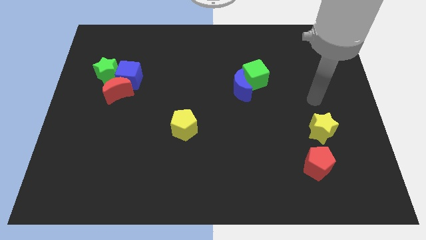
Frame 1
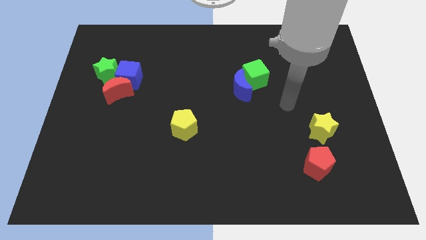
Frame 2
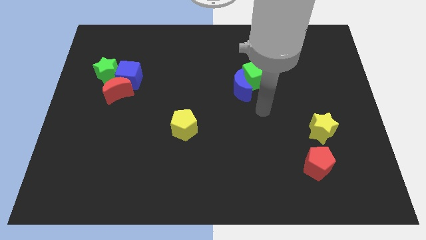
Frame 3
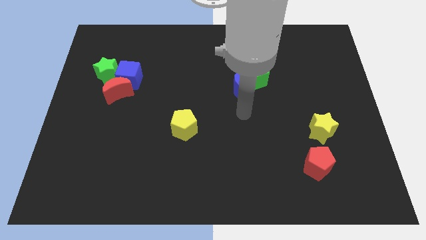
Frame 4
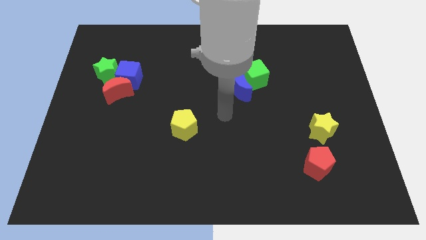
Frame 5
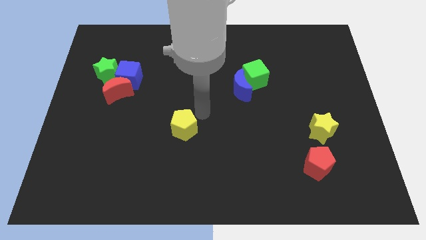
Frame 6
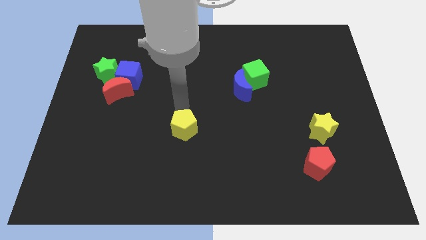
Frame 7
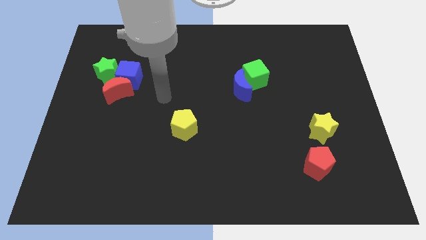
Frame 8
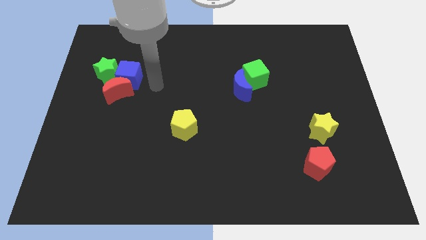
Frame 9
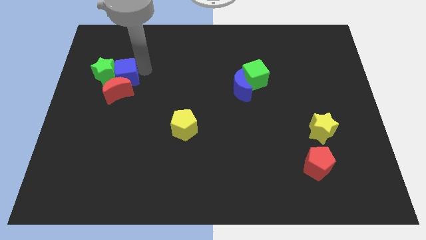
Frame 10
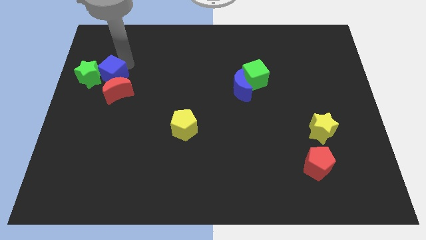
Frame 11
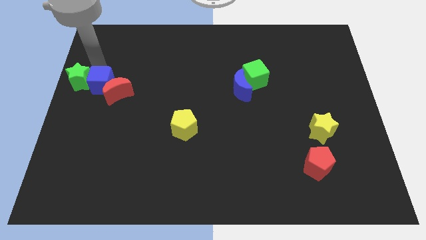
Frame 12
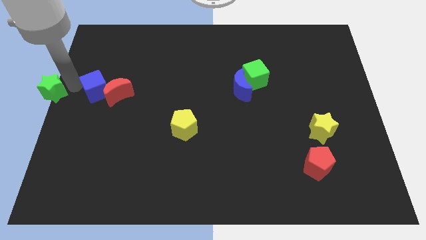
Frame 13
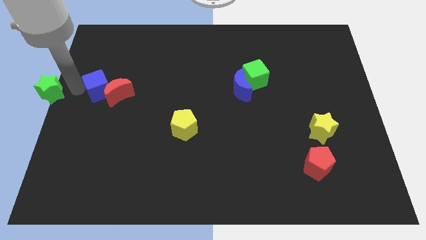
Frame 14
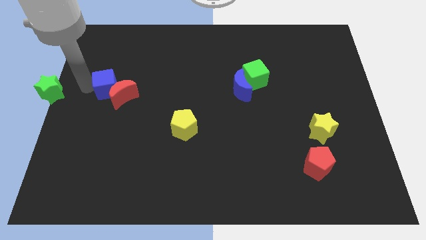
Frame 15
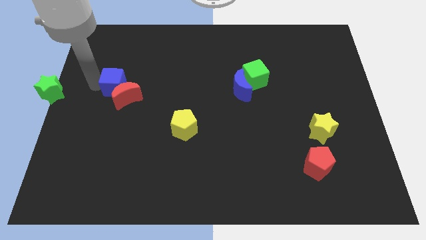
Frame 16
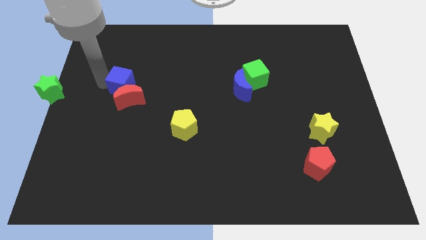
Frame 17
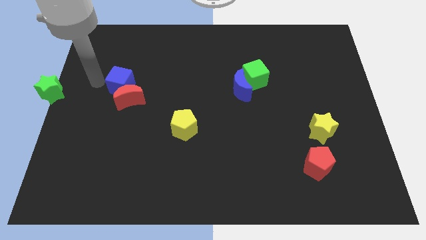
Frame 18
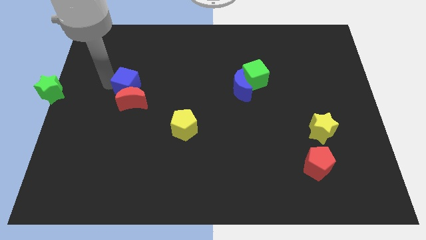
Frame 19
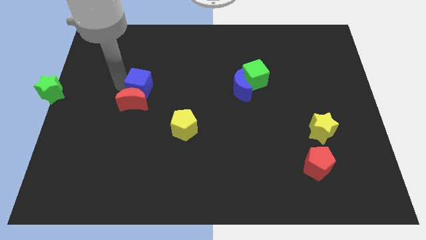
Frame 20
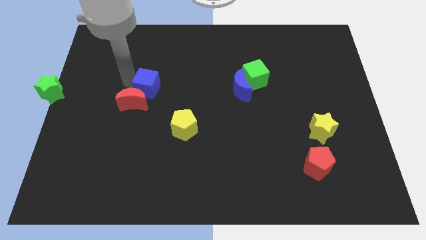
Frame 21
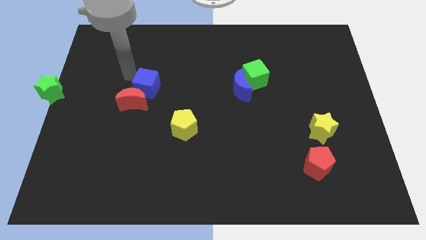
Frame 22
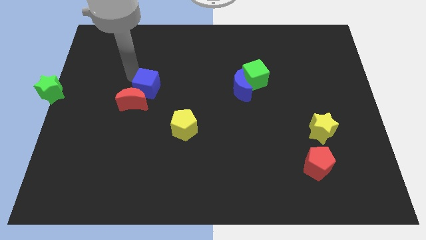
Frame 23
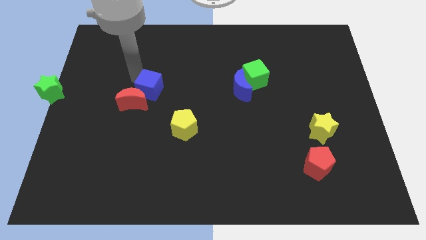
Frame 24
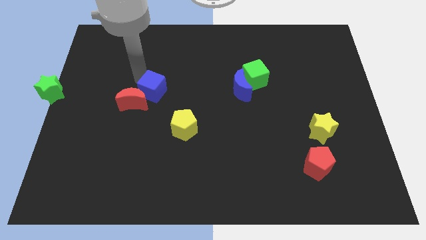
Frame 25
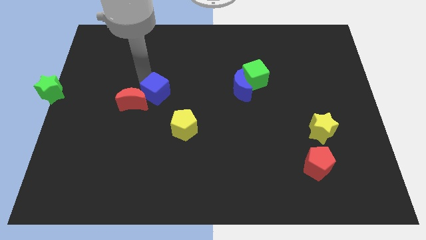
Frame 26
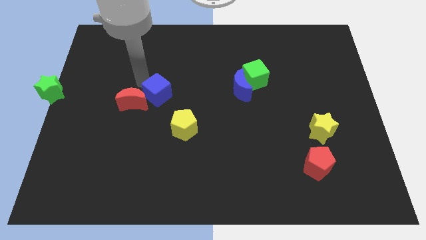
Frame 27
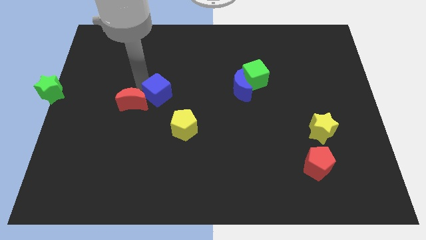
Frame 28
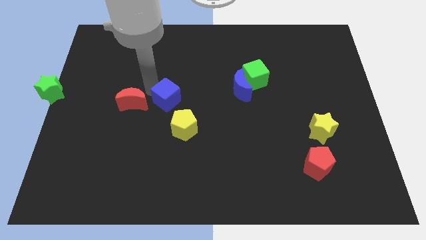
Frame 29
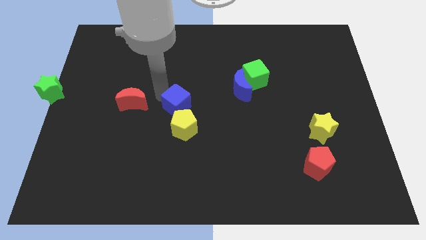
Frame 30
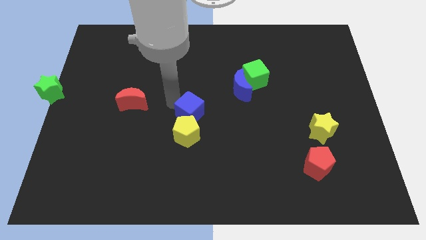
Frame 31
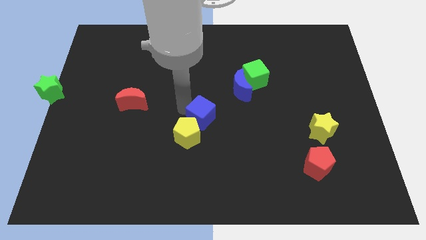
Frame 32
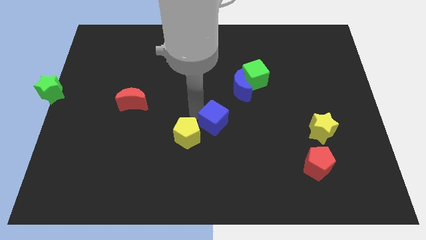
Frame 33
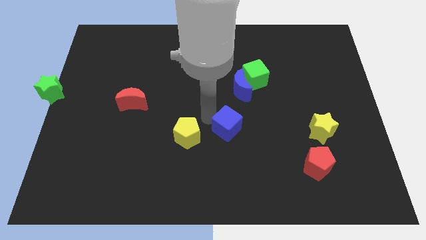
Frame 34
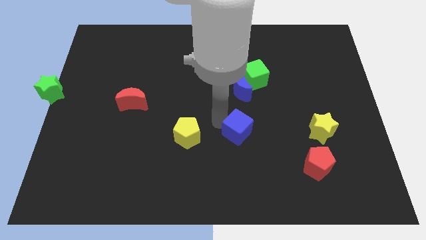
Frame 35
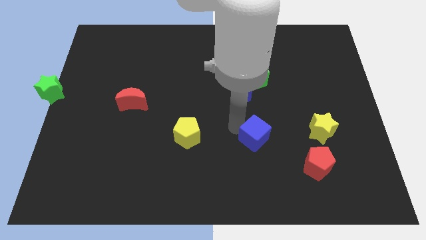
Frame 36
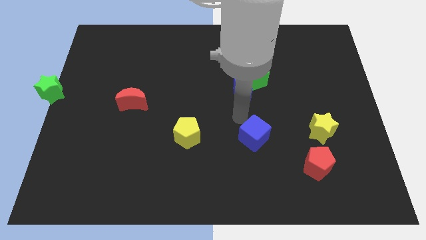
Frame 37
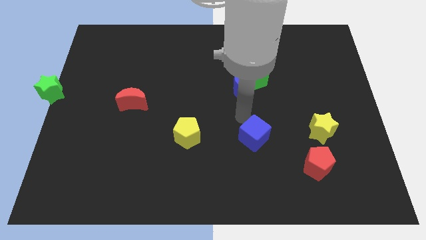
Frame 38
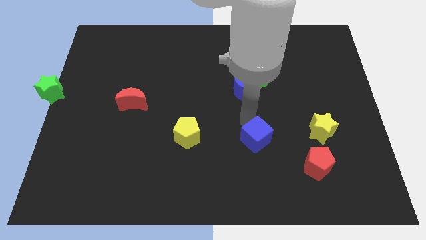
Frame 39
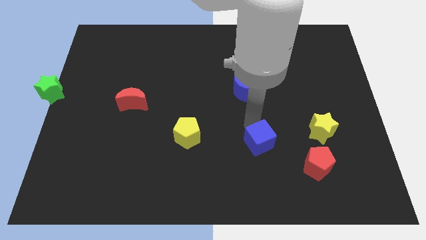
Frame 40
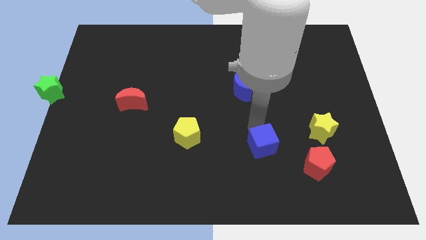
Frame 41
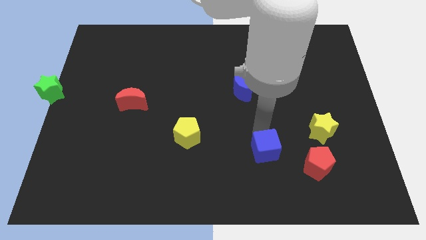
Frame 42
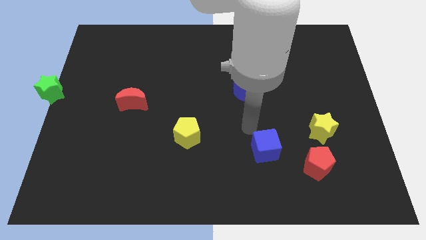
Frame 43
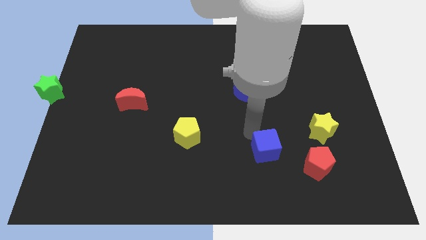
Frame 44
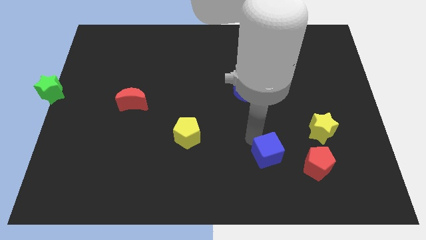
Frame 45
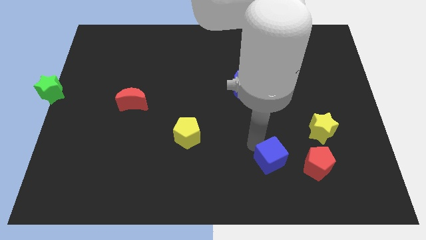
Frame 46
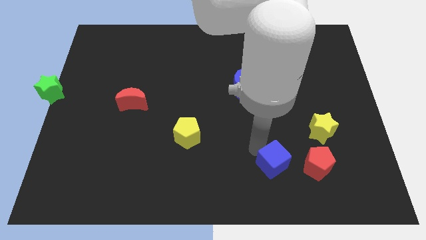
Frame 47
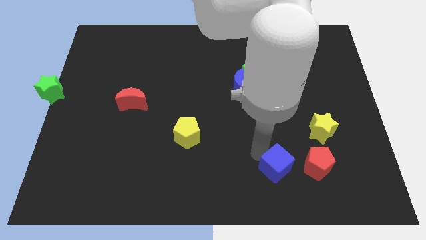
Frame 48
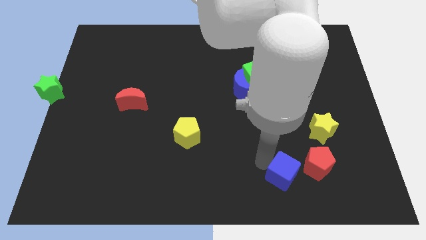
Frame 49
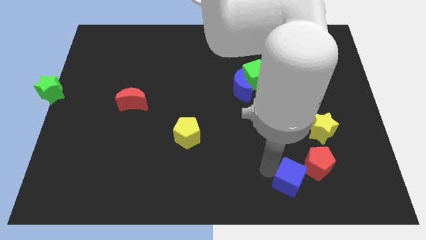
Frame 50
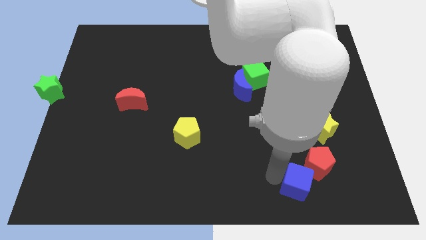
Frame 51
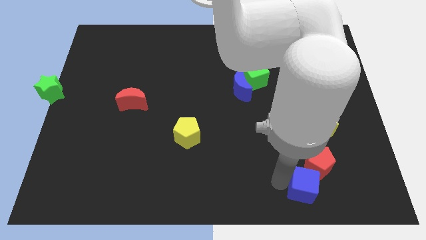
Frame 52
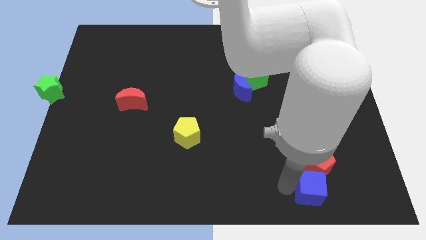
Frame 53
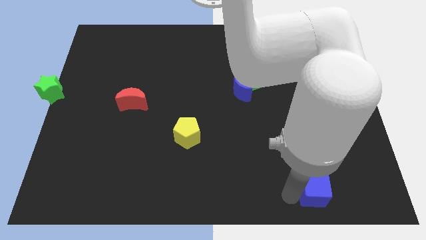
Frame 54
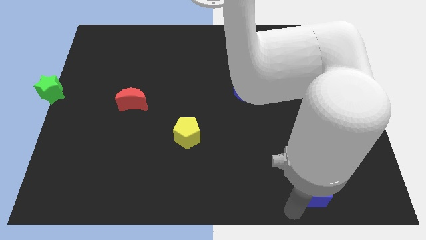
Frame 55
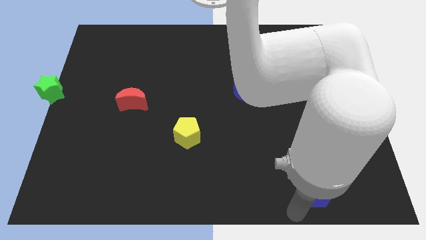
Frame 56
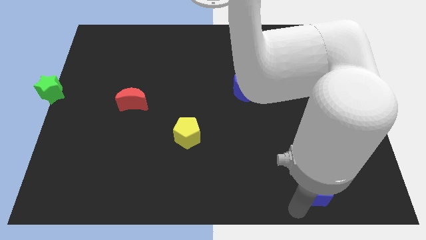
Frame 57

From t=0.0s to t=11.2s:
slide the blue cube to the bottom of the yellow star

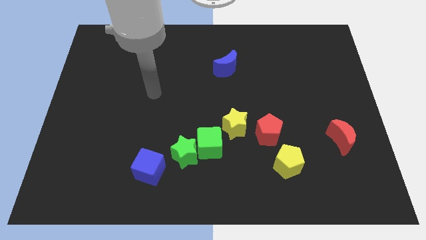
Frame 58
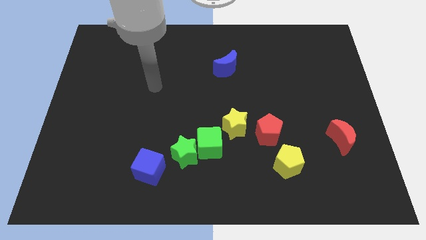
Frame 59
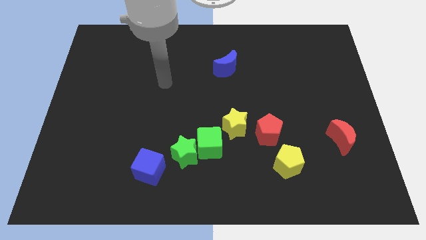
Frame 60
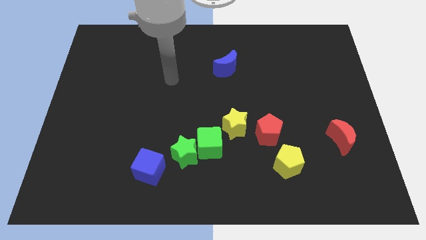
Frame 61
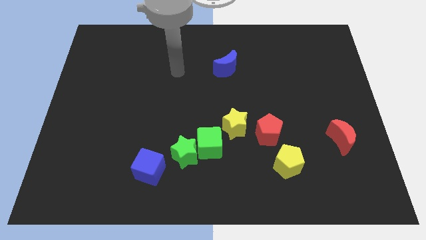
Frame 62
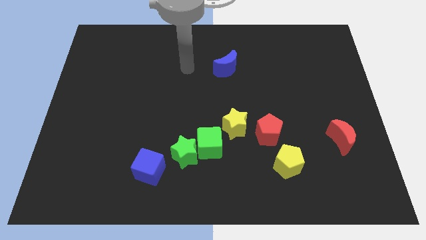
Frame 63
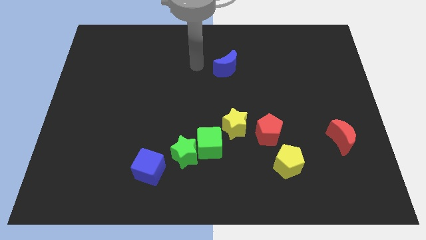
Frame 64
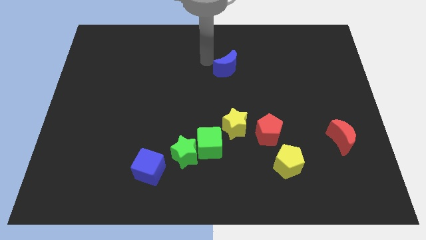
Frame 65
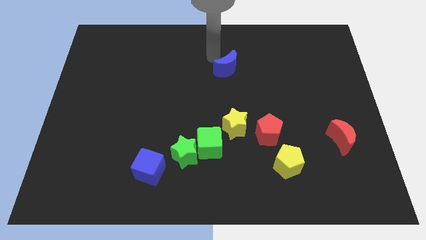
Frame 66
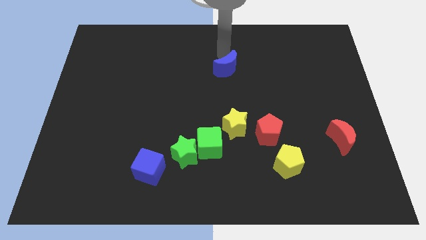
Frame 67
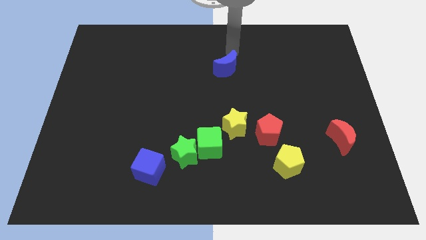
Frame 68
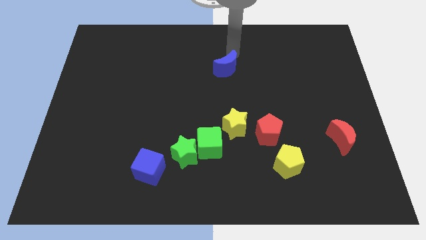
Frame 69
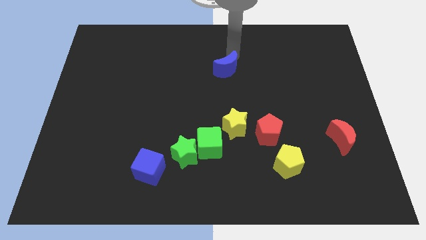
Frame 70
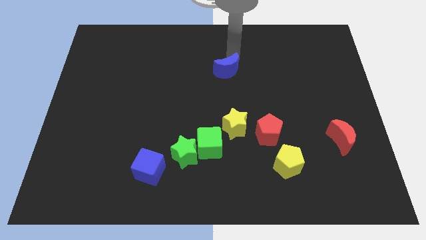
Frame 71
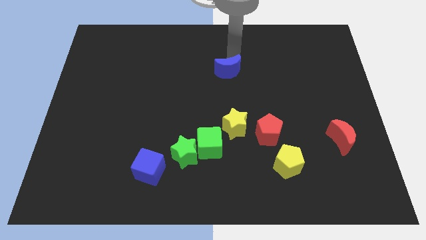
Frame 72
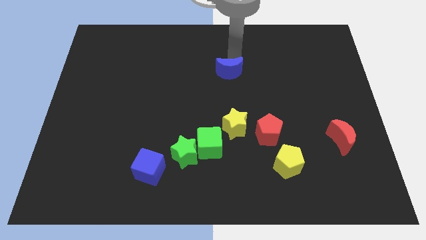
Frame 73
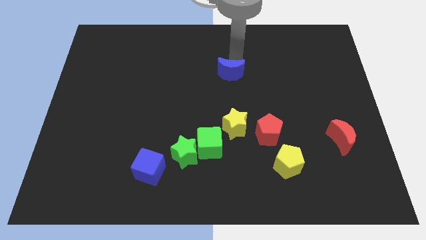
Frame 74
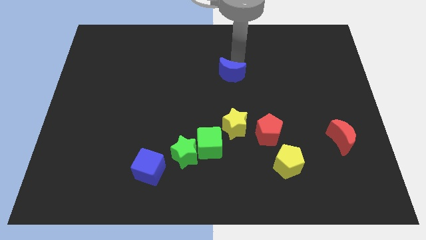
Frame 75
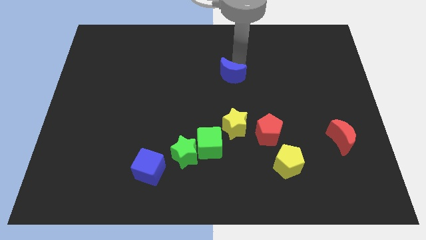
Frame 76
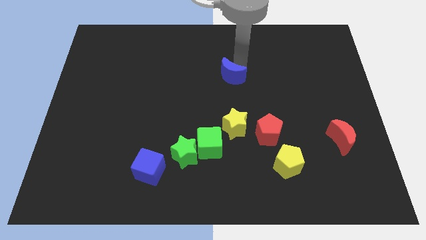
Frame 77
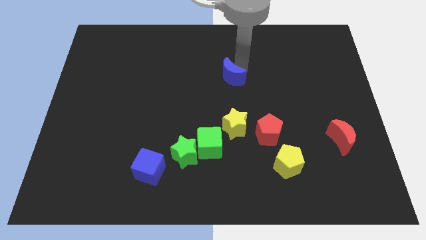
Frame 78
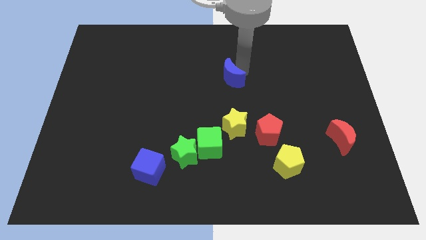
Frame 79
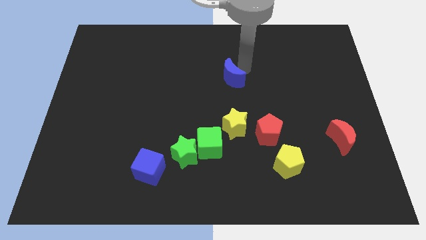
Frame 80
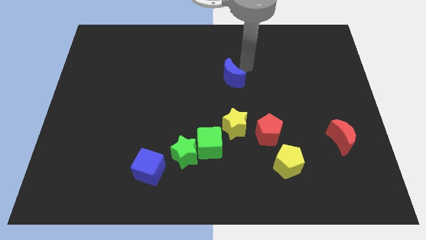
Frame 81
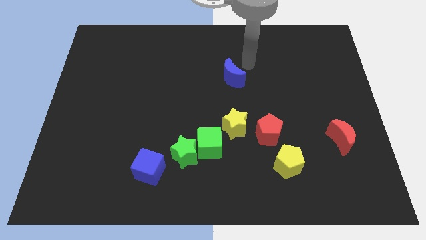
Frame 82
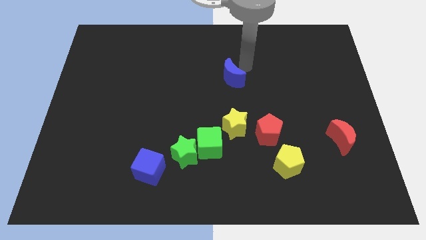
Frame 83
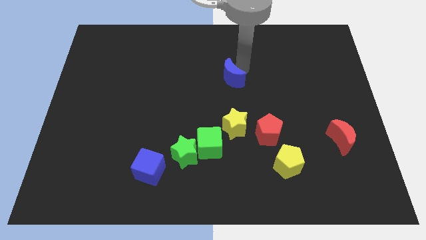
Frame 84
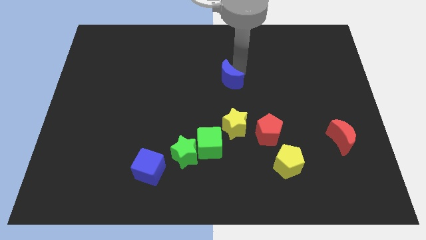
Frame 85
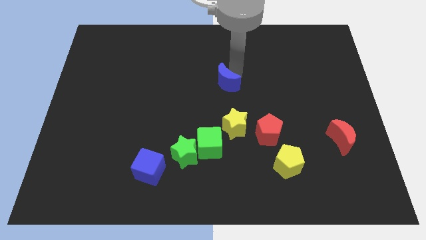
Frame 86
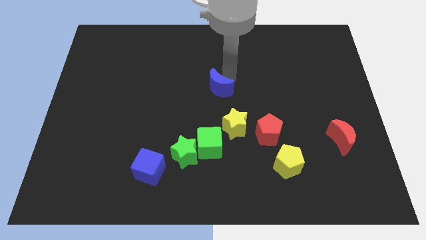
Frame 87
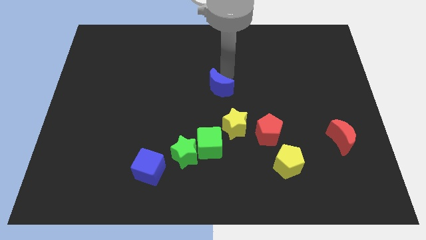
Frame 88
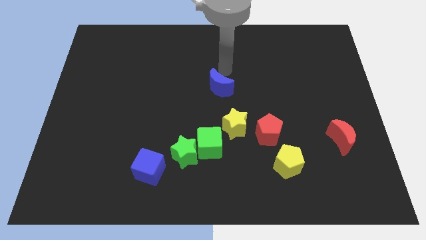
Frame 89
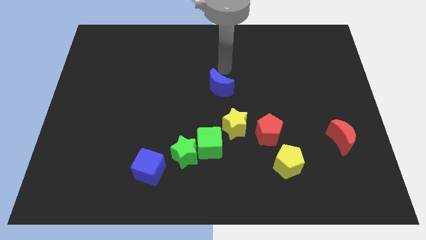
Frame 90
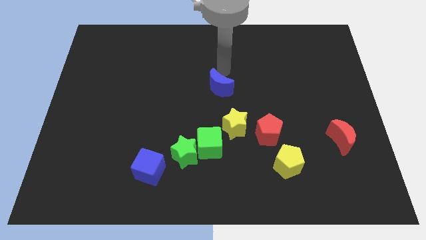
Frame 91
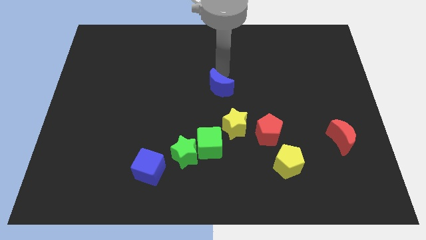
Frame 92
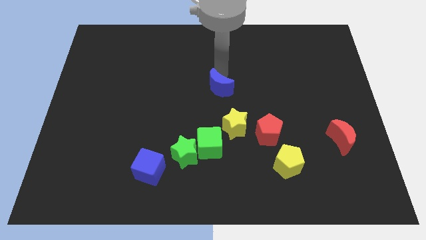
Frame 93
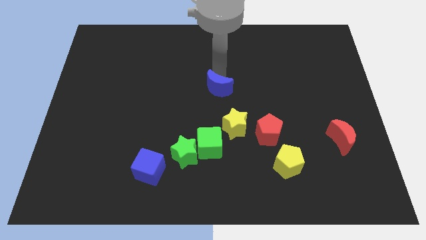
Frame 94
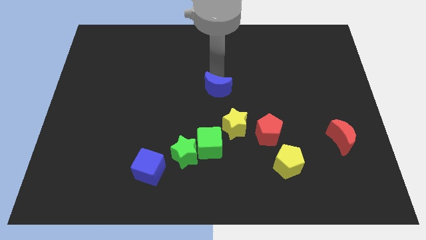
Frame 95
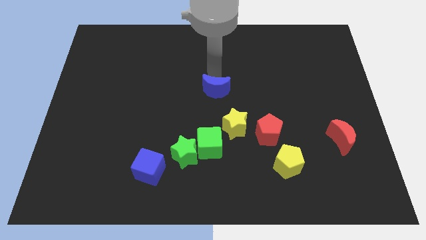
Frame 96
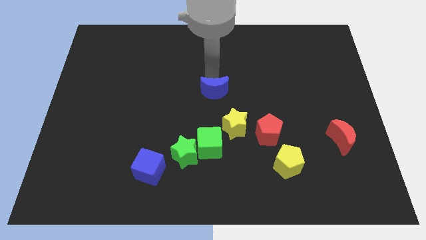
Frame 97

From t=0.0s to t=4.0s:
slide the blue moon diagonally up and to the left of the yellow star
